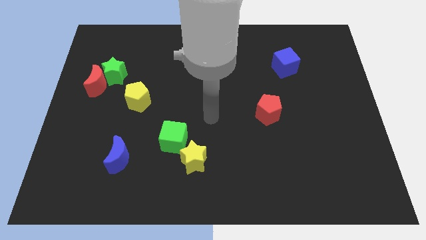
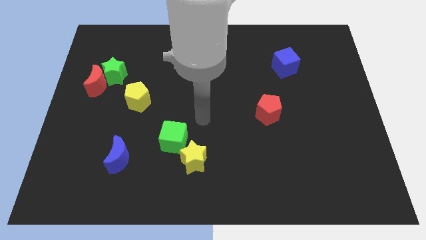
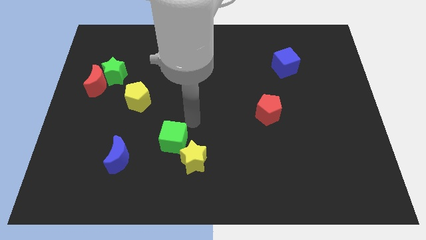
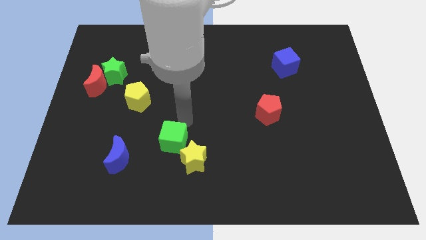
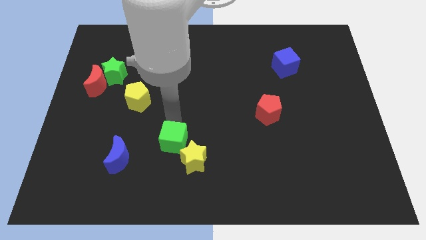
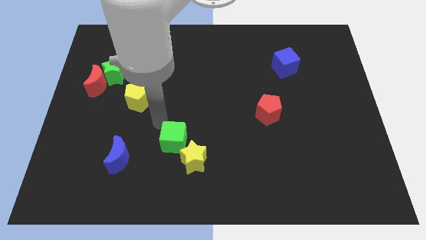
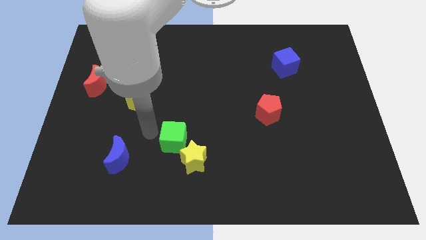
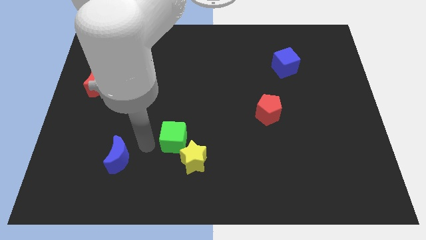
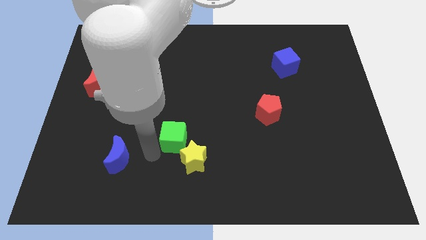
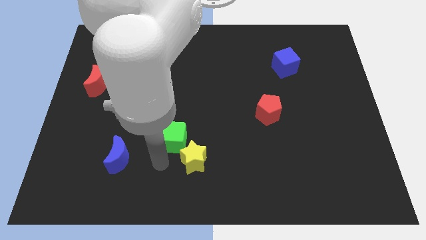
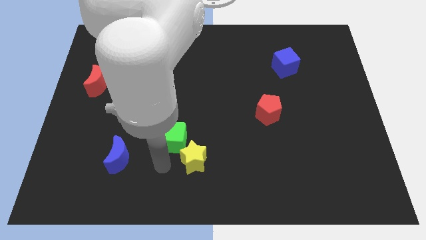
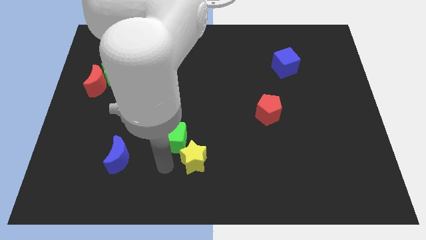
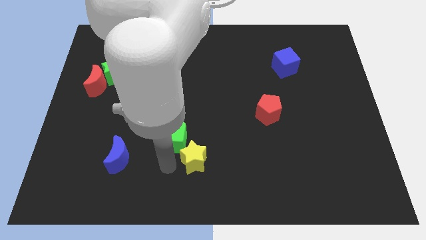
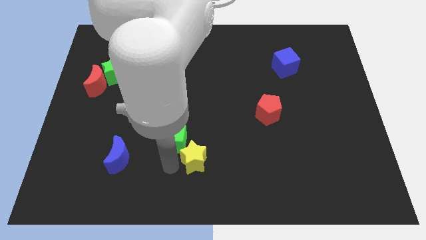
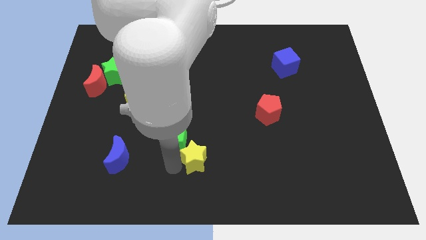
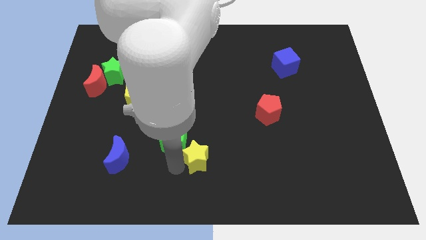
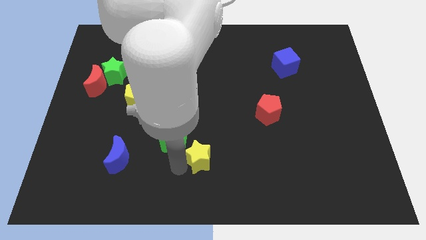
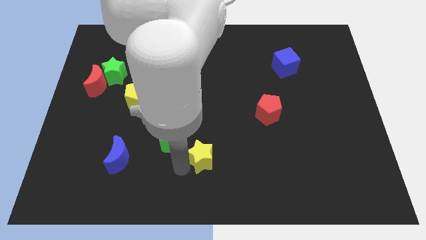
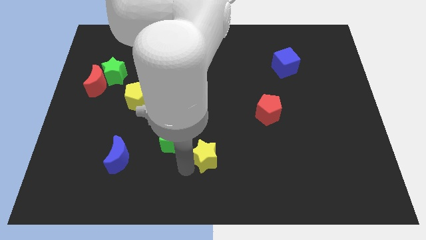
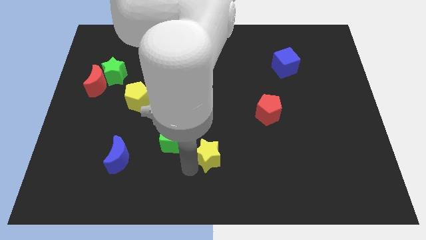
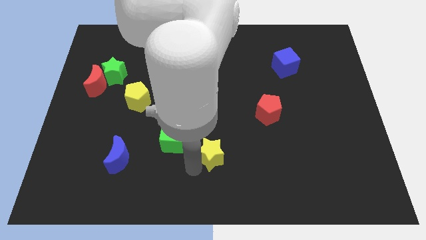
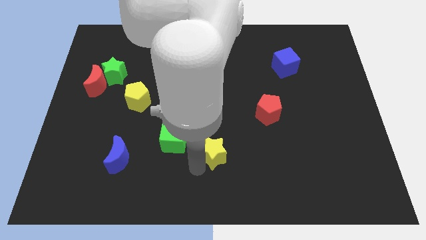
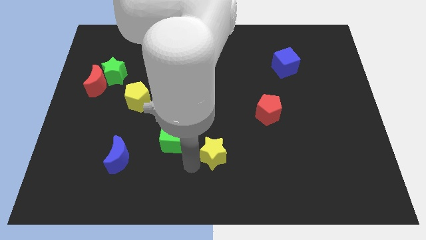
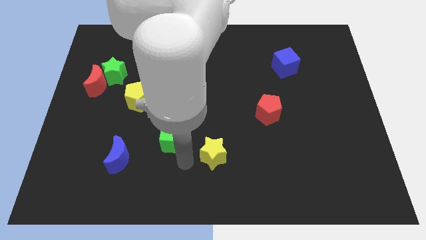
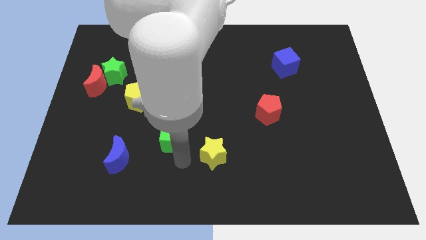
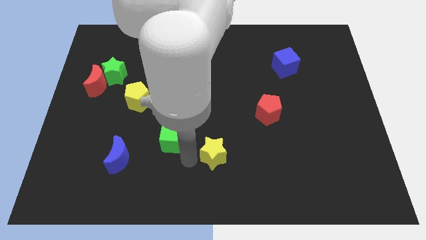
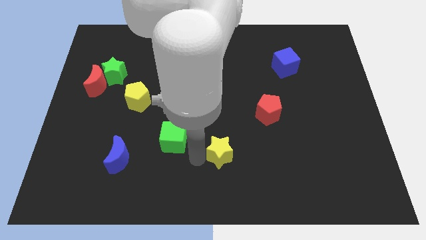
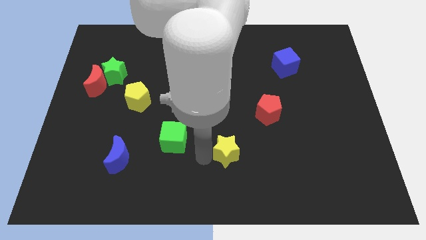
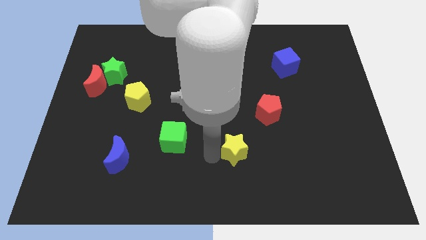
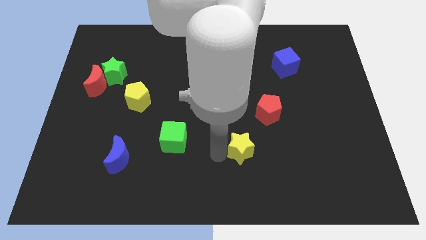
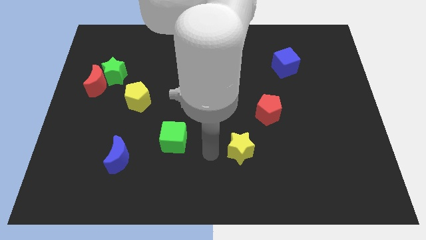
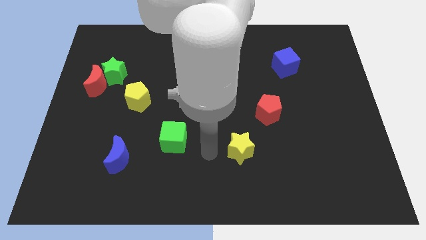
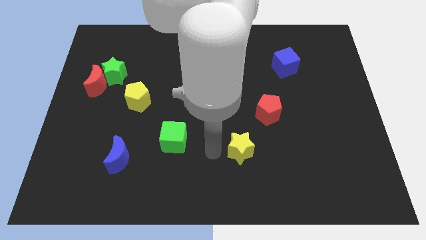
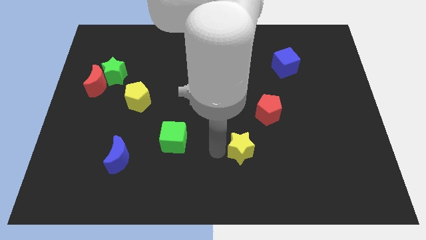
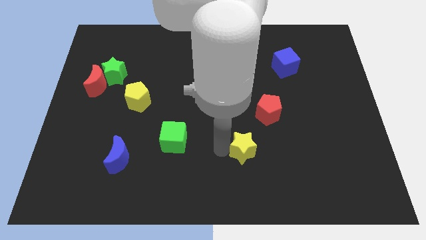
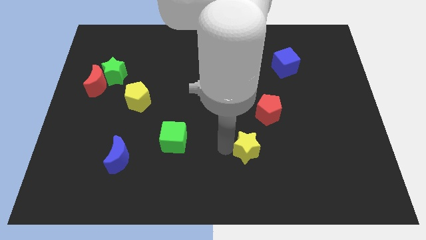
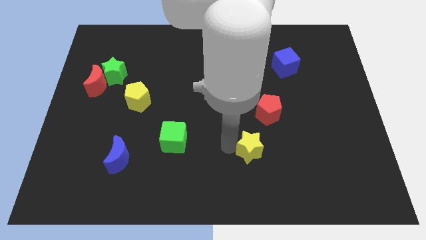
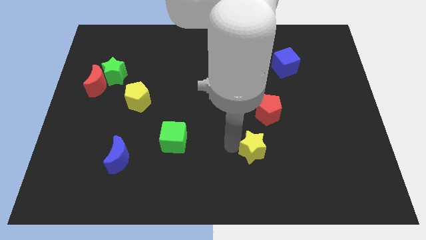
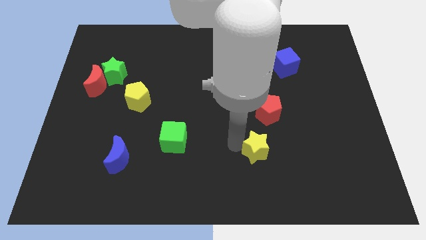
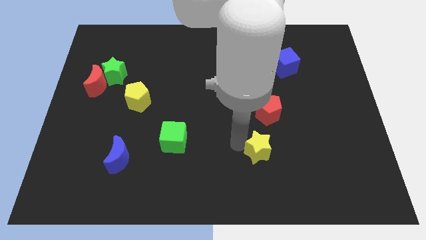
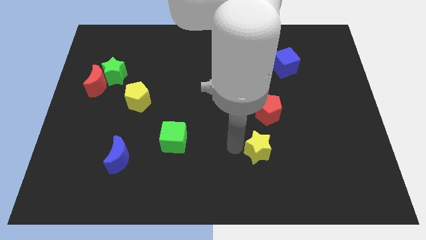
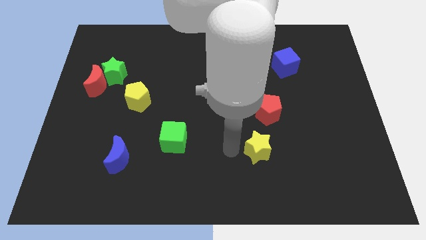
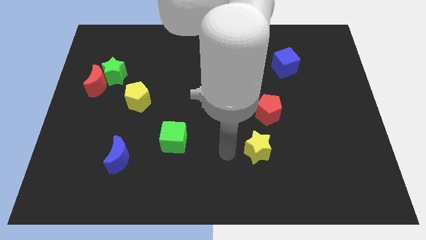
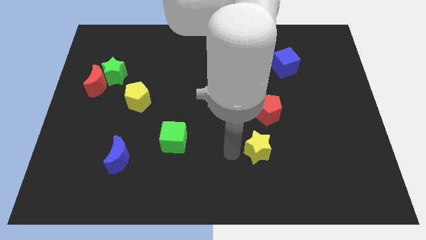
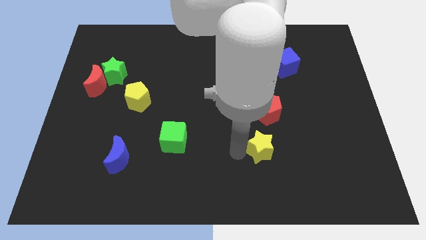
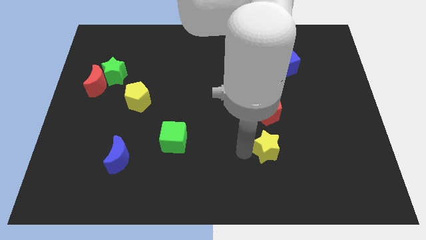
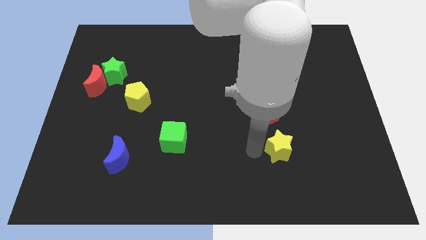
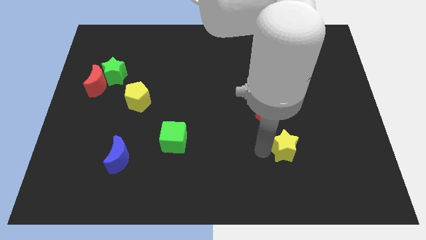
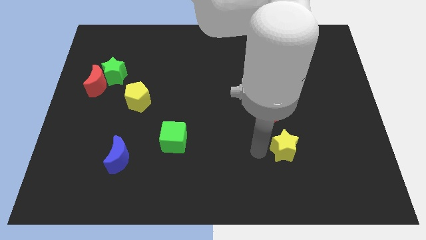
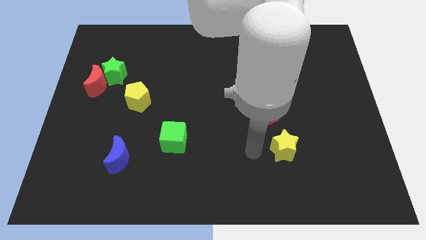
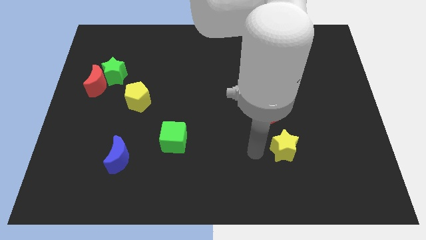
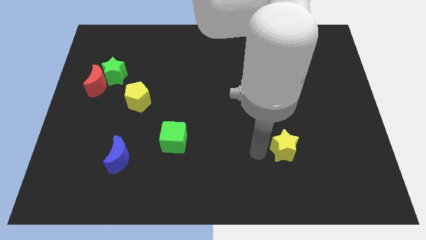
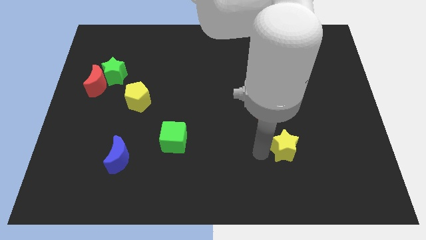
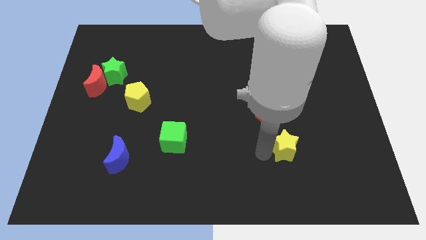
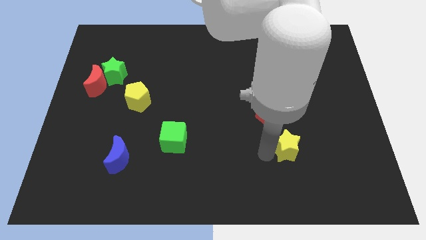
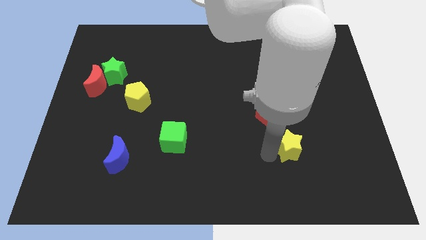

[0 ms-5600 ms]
move the yellow star to the right

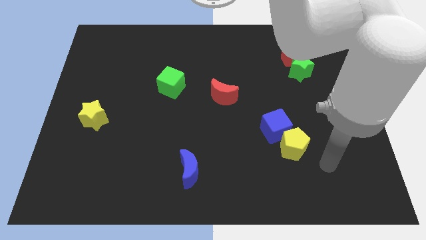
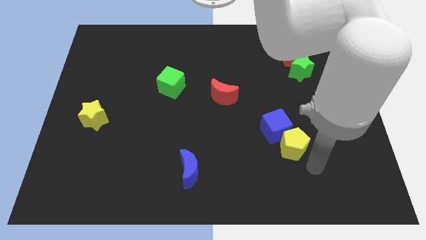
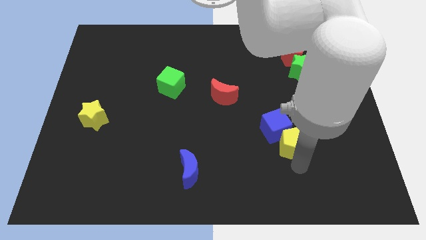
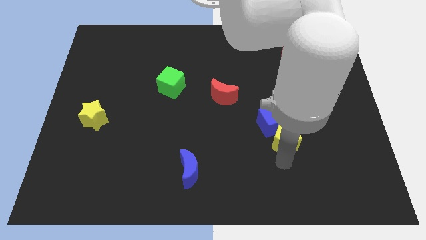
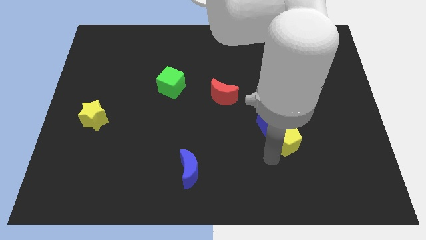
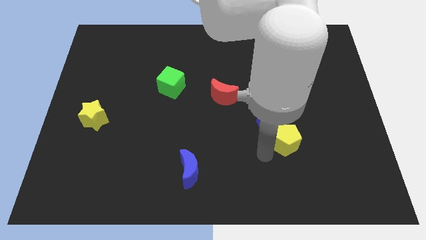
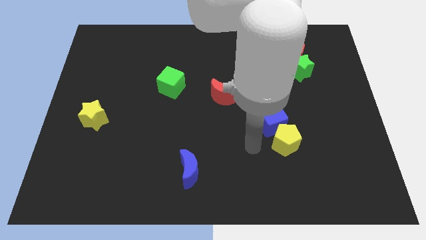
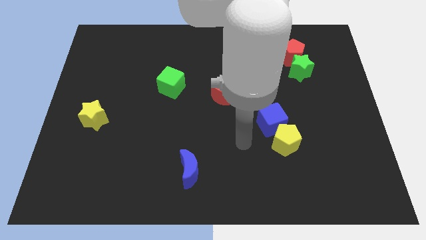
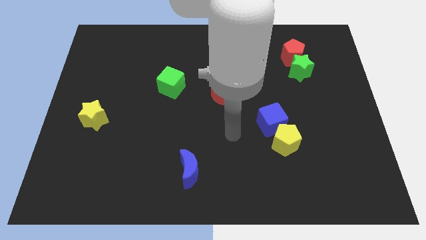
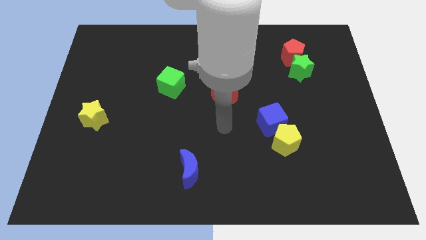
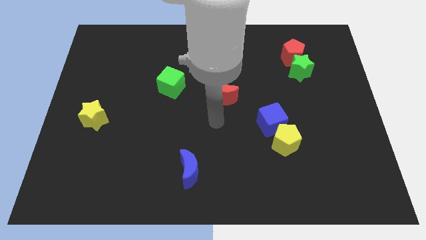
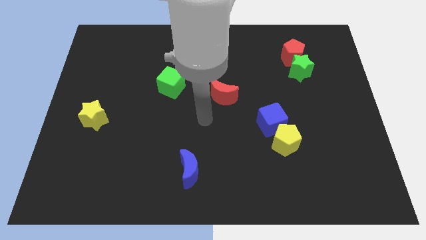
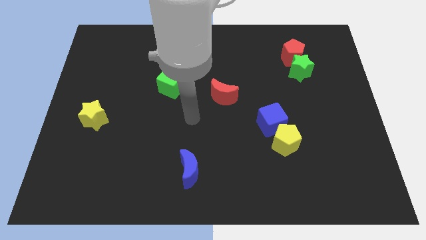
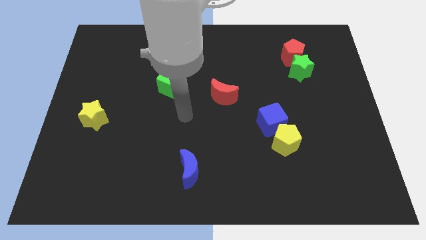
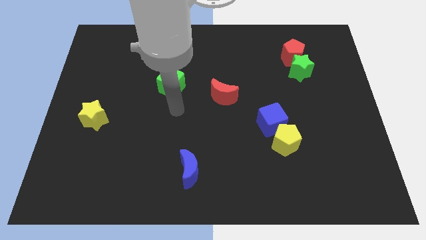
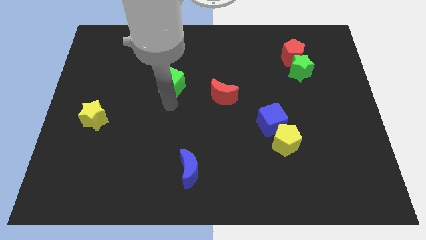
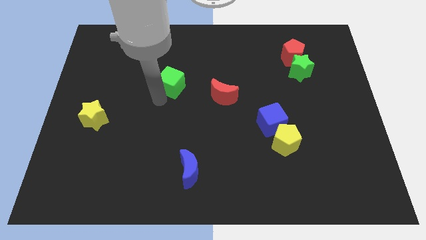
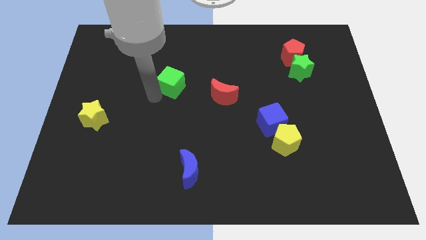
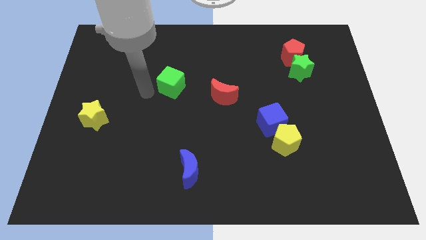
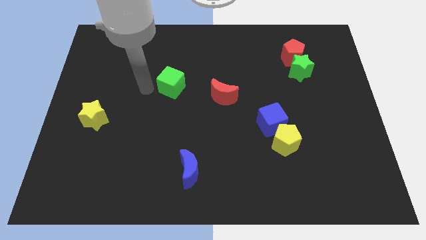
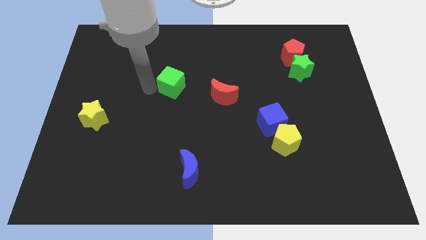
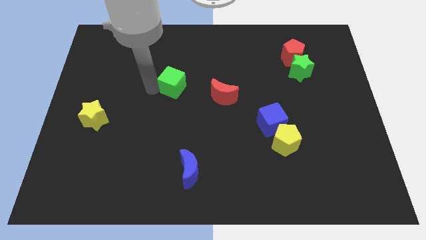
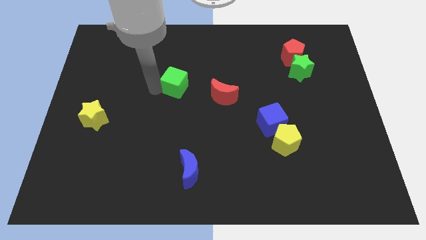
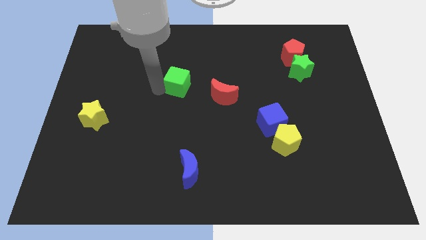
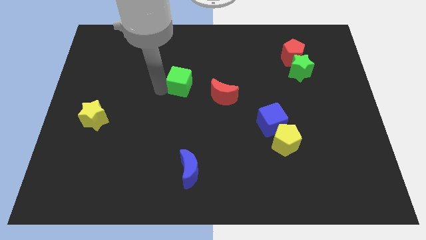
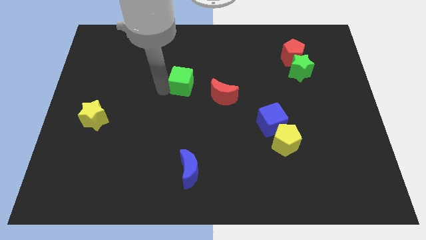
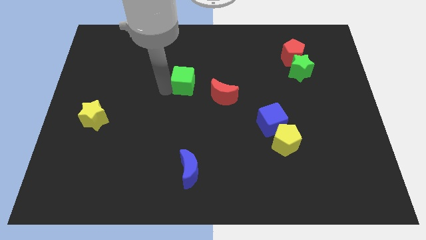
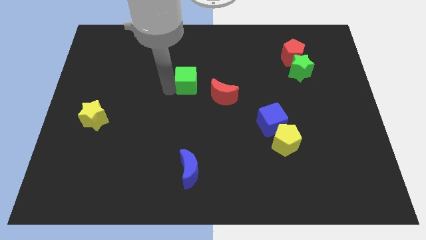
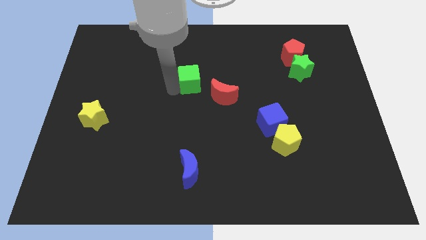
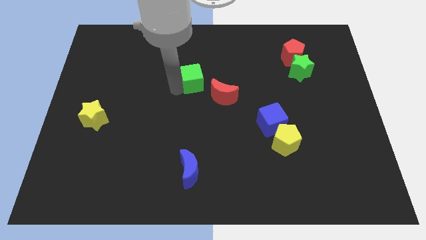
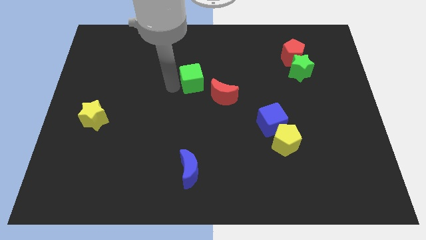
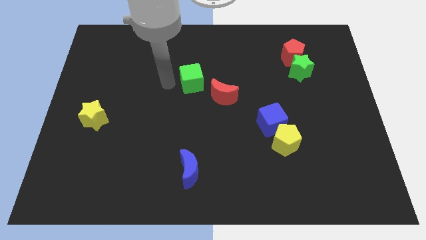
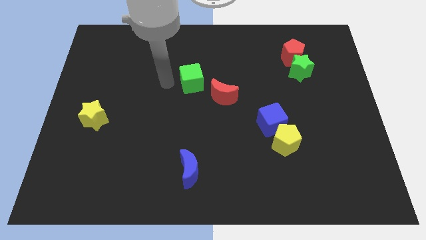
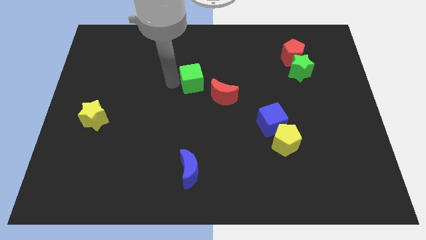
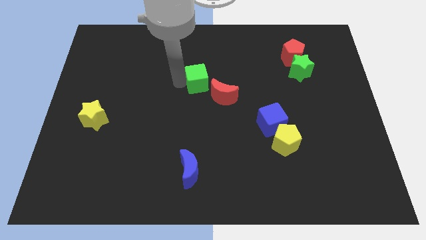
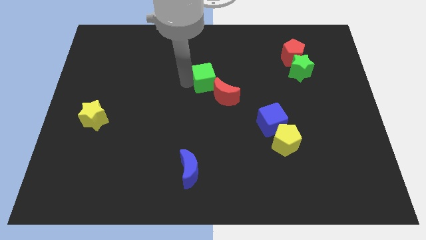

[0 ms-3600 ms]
push the green cube slightly to the right
